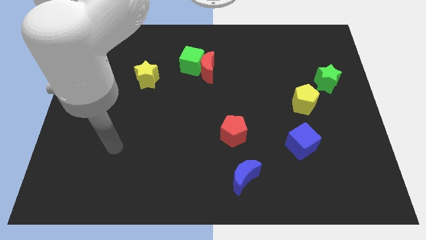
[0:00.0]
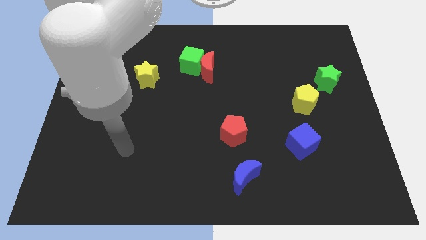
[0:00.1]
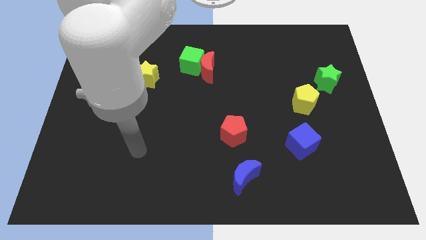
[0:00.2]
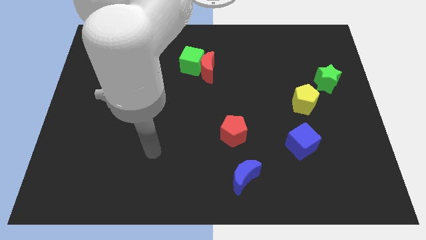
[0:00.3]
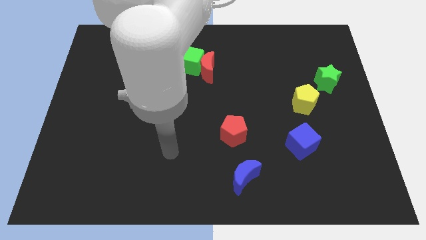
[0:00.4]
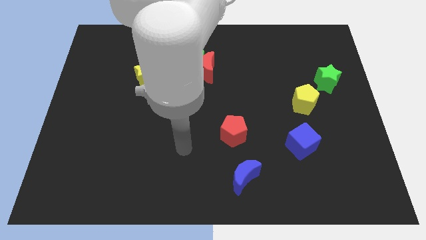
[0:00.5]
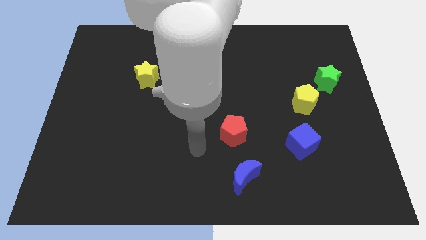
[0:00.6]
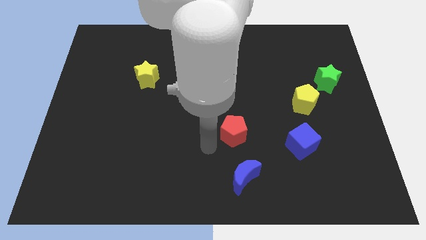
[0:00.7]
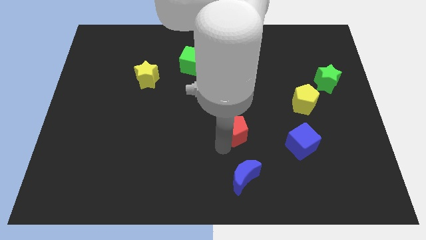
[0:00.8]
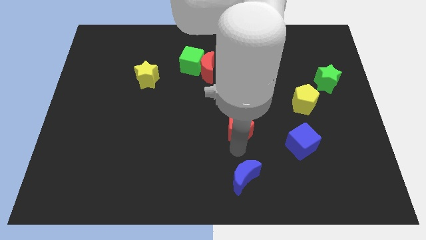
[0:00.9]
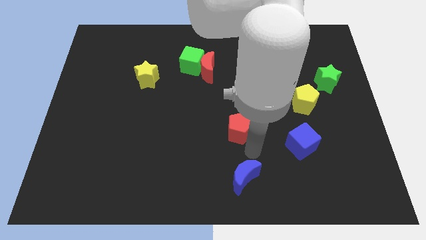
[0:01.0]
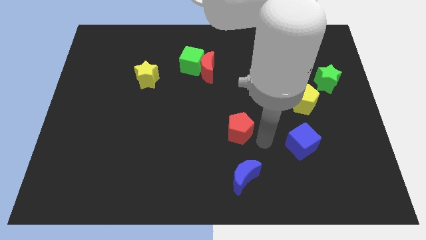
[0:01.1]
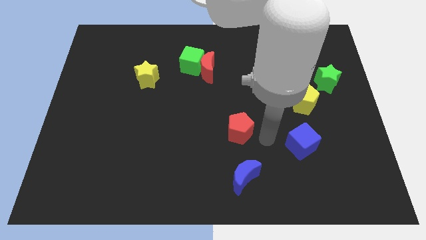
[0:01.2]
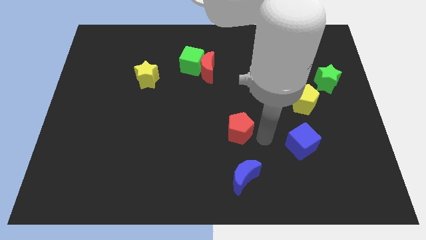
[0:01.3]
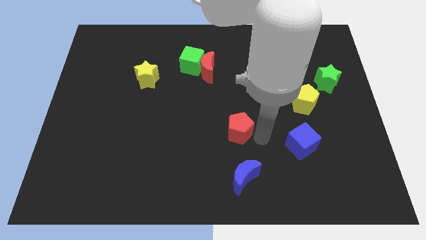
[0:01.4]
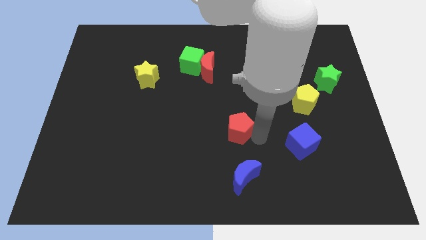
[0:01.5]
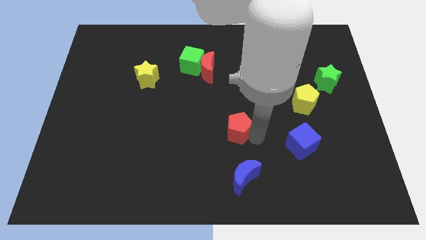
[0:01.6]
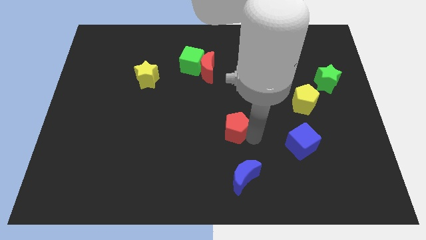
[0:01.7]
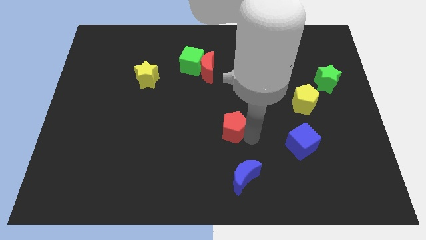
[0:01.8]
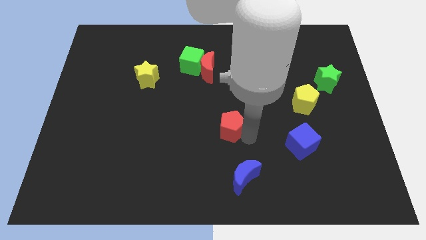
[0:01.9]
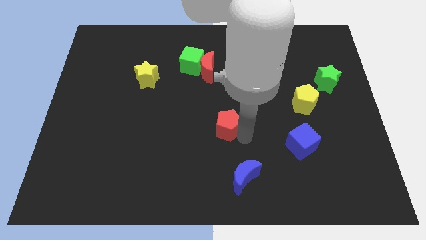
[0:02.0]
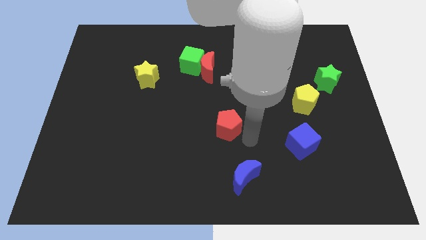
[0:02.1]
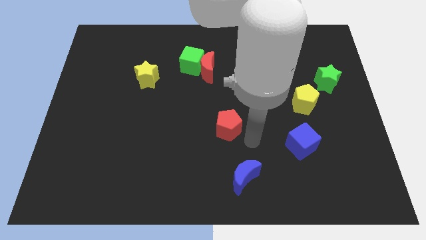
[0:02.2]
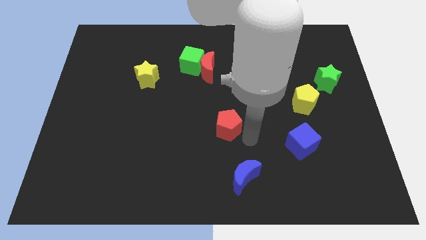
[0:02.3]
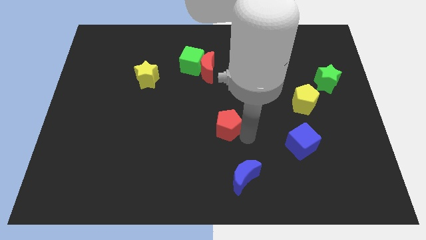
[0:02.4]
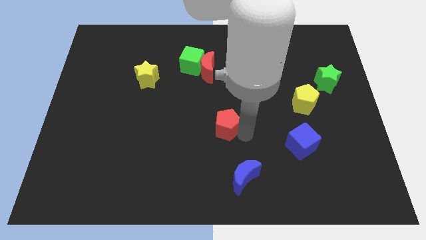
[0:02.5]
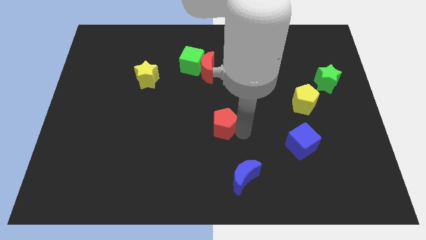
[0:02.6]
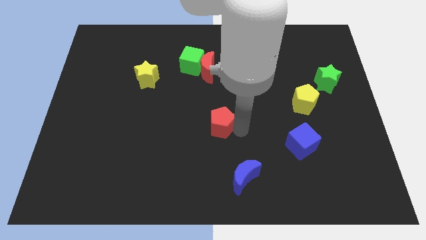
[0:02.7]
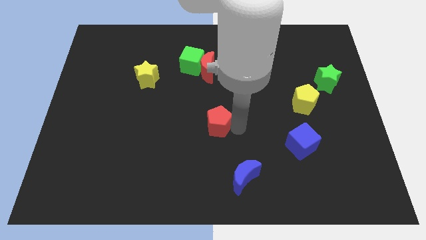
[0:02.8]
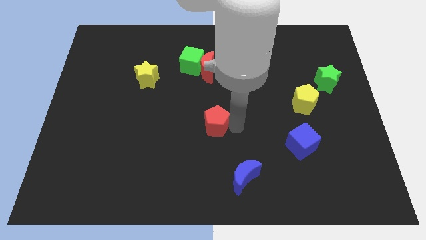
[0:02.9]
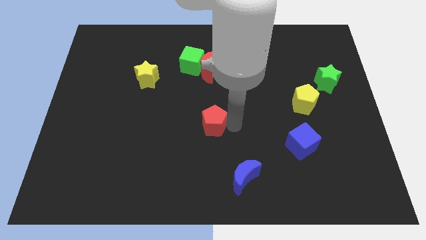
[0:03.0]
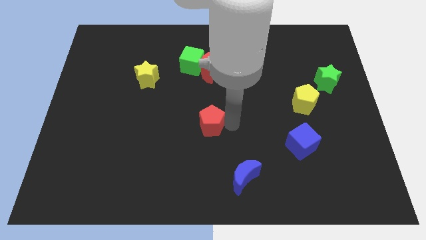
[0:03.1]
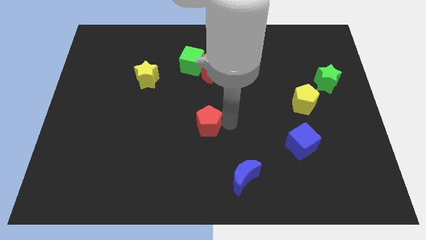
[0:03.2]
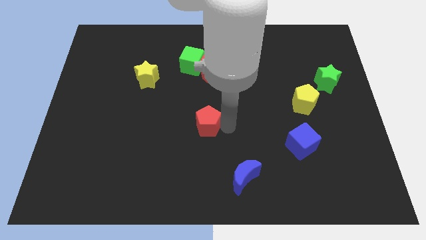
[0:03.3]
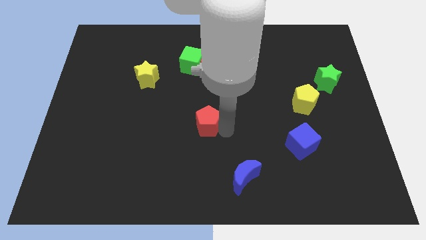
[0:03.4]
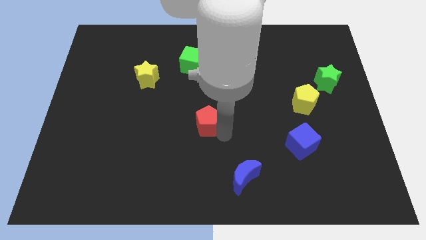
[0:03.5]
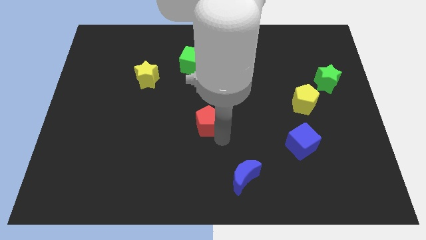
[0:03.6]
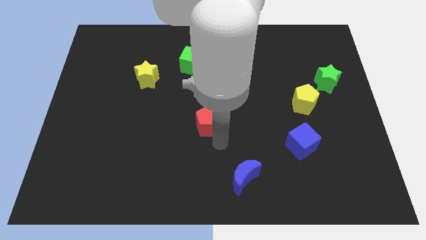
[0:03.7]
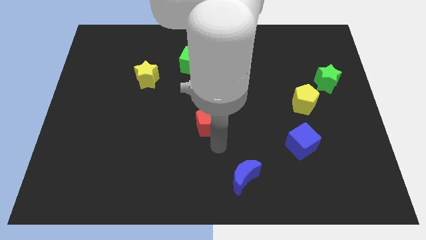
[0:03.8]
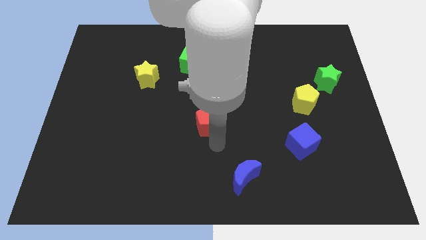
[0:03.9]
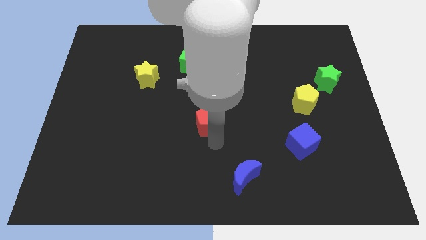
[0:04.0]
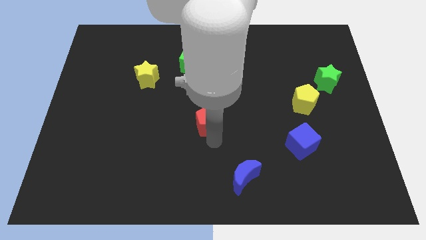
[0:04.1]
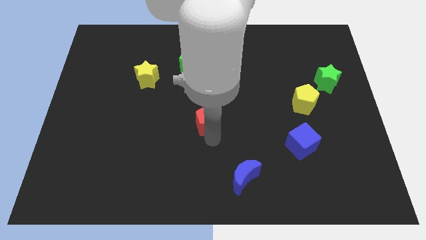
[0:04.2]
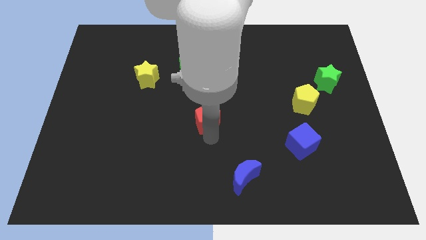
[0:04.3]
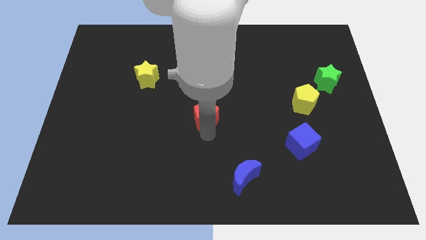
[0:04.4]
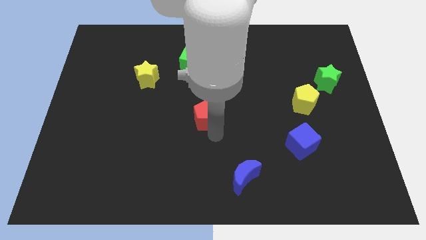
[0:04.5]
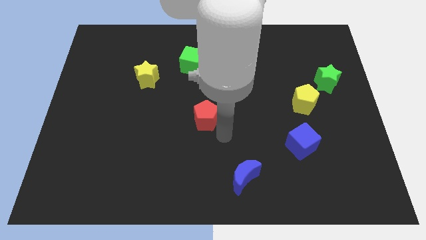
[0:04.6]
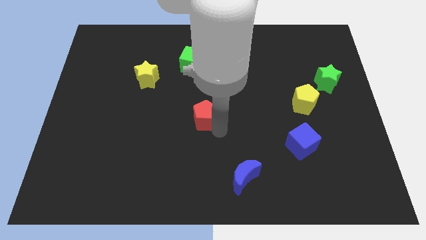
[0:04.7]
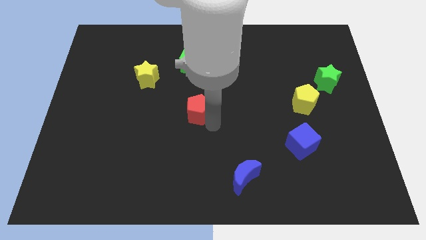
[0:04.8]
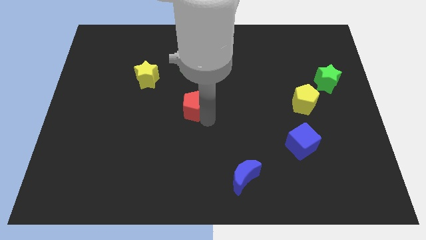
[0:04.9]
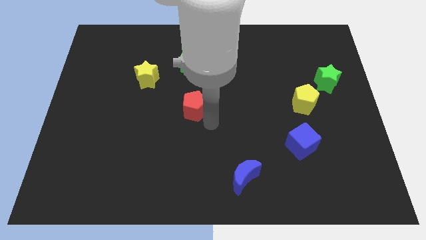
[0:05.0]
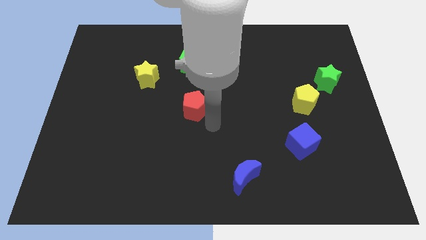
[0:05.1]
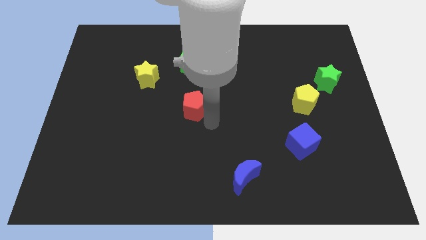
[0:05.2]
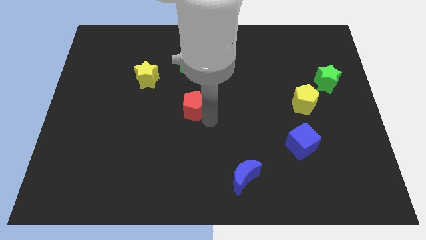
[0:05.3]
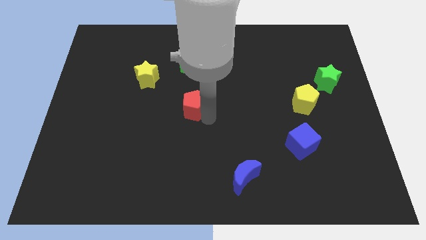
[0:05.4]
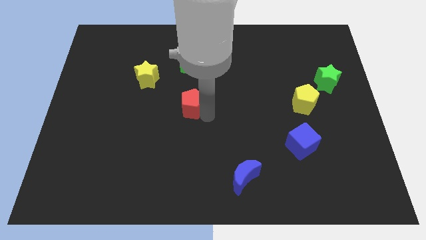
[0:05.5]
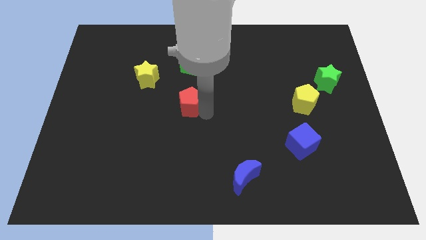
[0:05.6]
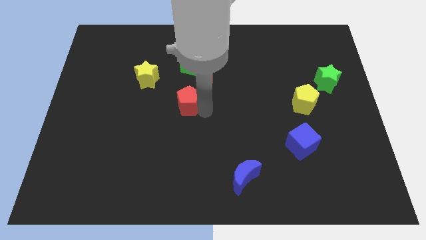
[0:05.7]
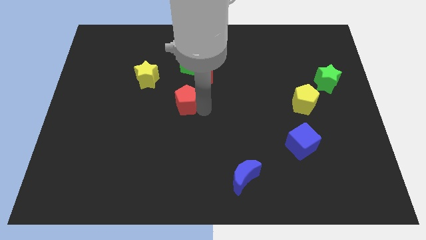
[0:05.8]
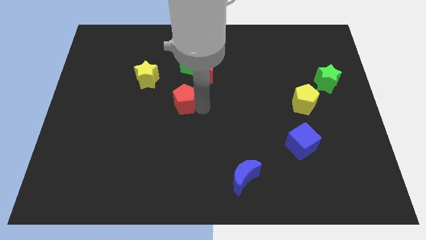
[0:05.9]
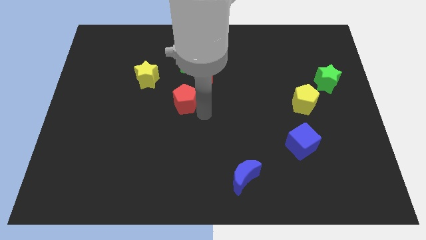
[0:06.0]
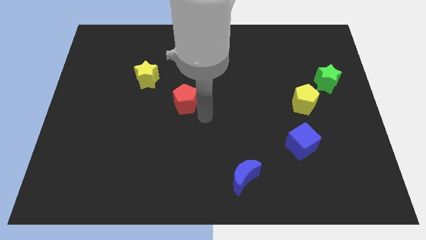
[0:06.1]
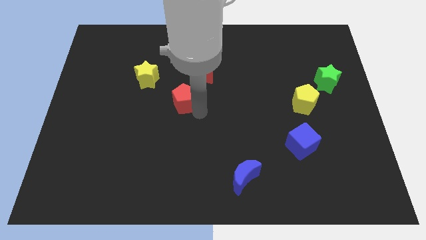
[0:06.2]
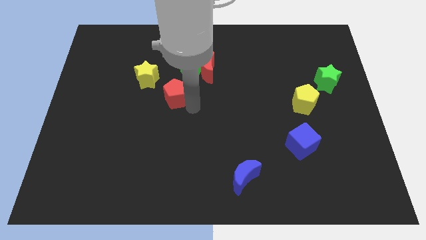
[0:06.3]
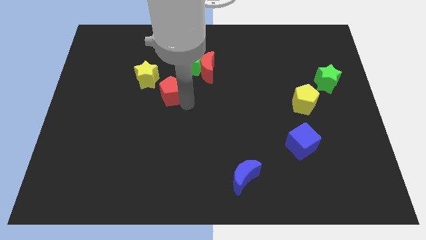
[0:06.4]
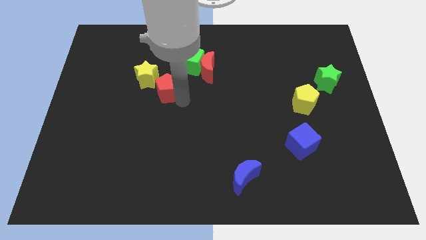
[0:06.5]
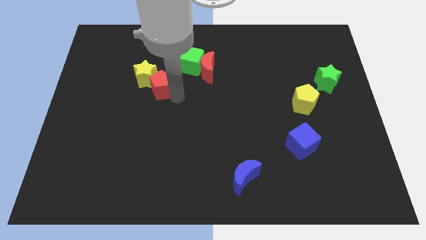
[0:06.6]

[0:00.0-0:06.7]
move the red pentagon to the yellow star

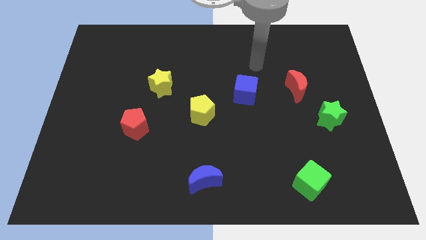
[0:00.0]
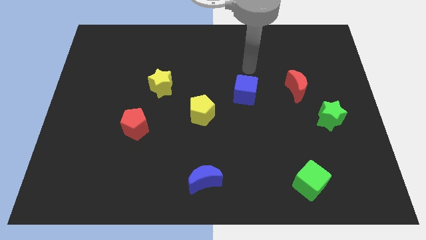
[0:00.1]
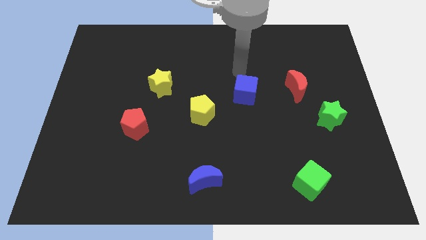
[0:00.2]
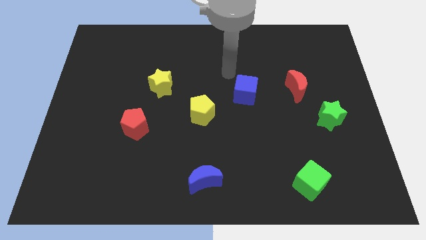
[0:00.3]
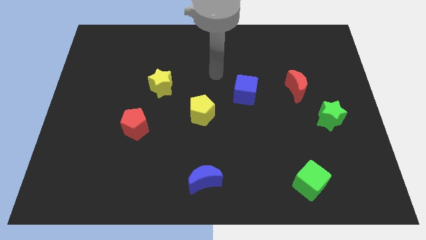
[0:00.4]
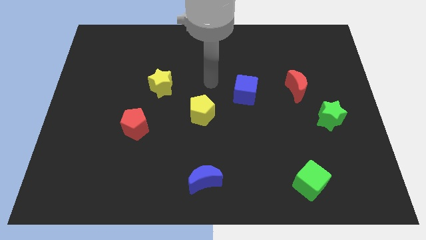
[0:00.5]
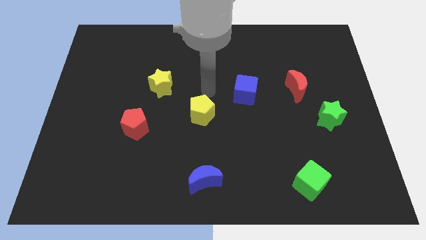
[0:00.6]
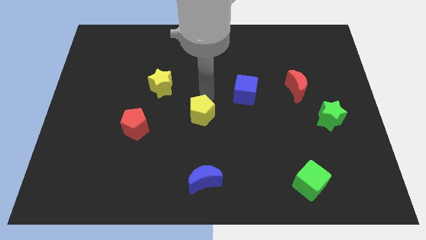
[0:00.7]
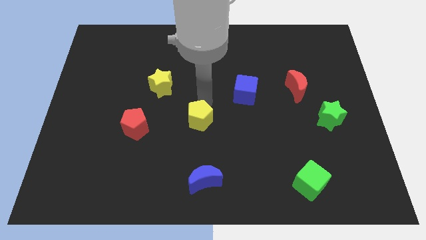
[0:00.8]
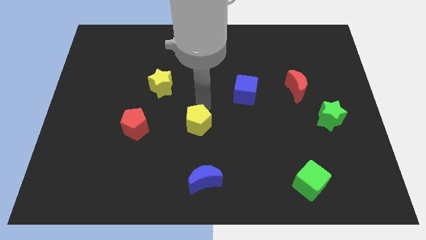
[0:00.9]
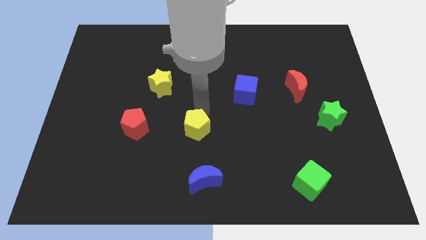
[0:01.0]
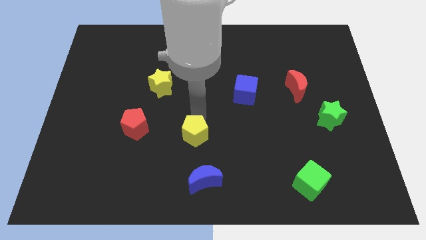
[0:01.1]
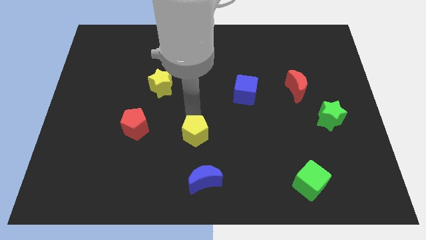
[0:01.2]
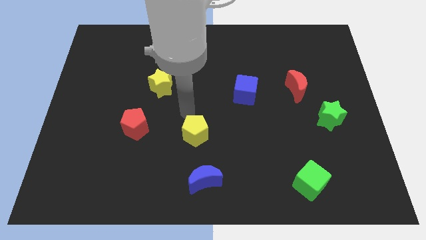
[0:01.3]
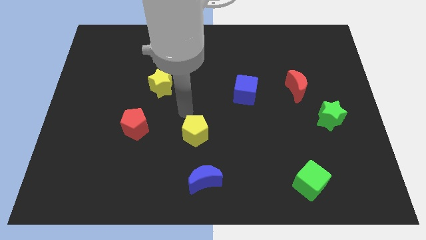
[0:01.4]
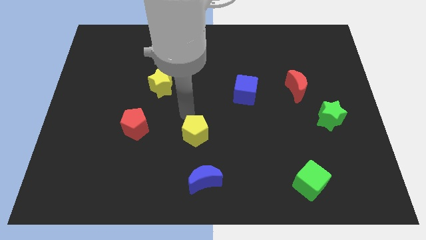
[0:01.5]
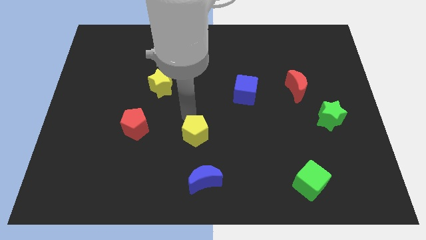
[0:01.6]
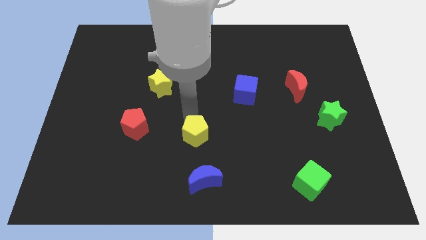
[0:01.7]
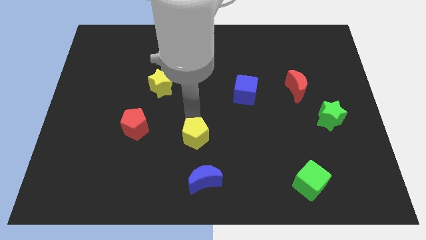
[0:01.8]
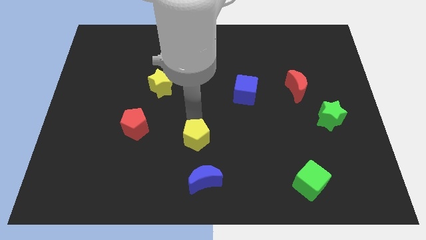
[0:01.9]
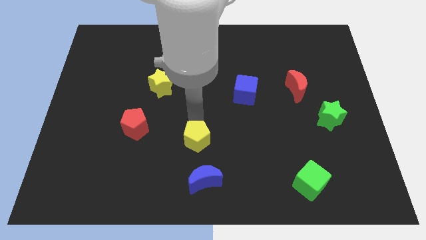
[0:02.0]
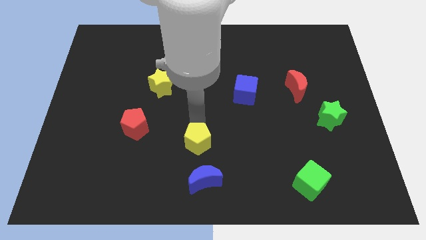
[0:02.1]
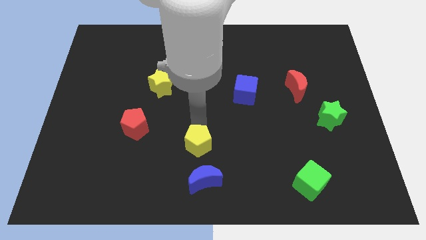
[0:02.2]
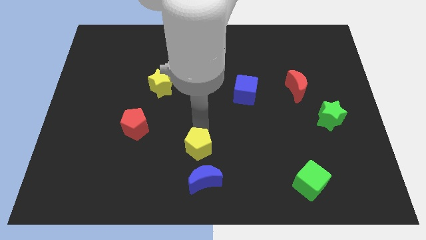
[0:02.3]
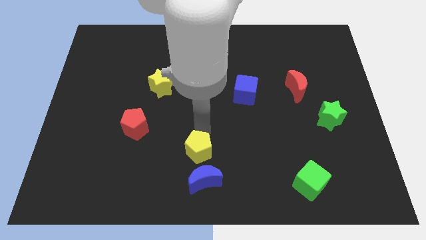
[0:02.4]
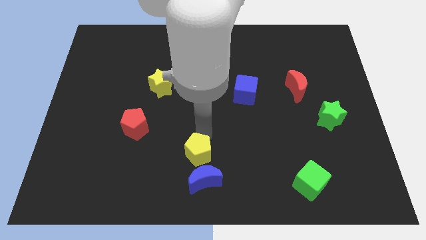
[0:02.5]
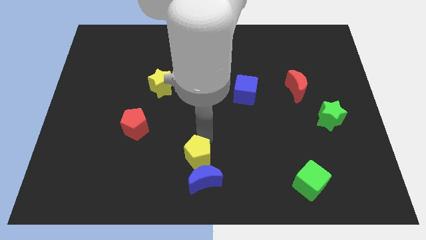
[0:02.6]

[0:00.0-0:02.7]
slide the yellow pentagon towards the blue moon
